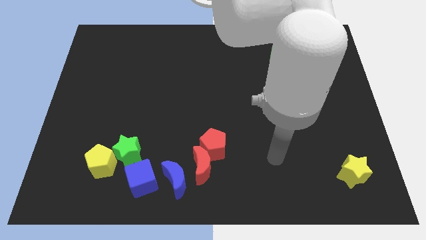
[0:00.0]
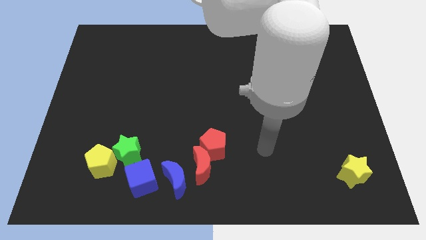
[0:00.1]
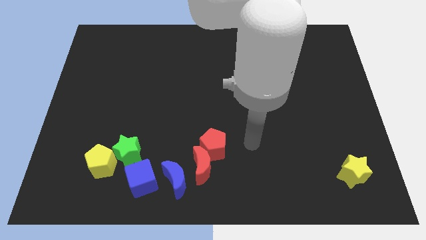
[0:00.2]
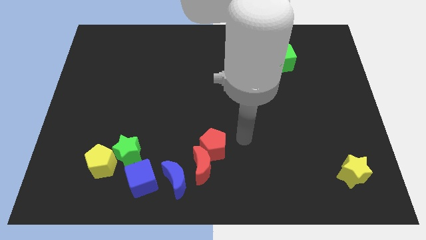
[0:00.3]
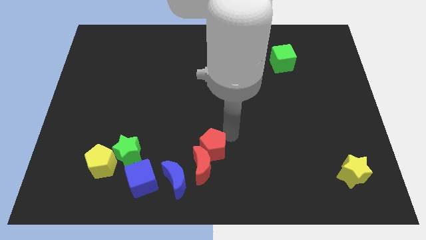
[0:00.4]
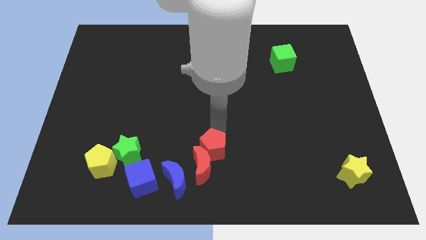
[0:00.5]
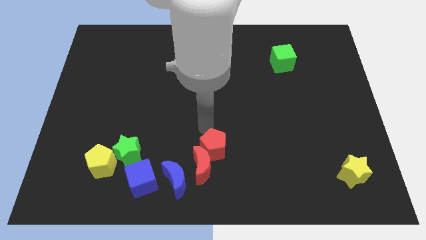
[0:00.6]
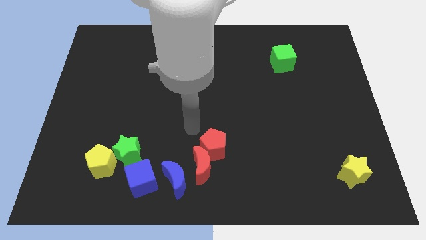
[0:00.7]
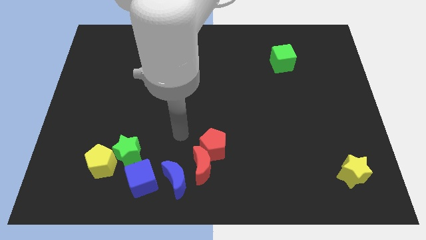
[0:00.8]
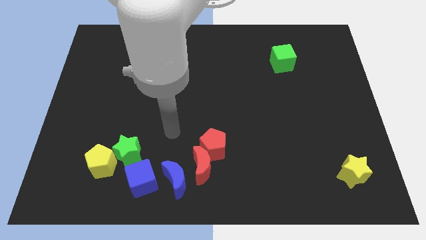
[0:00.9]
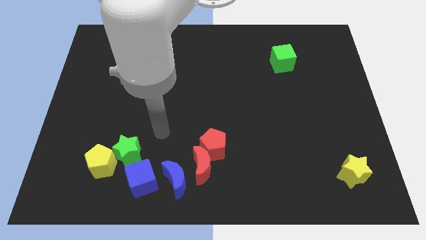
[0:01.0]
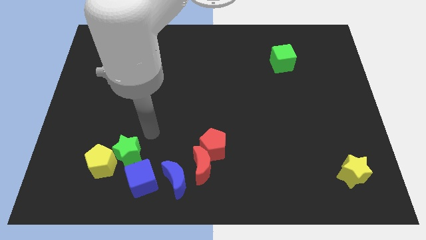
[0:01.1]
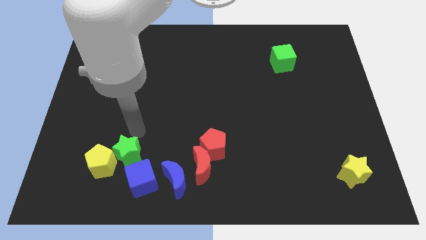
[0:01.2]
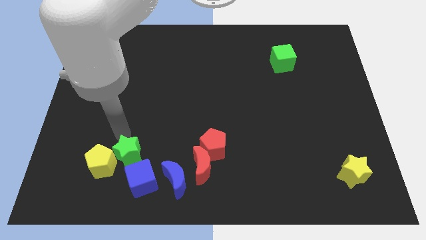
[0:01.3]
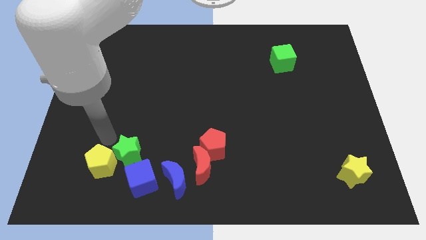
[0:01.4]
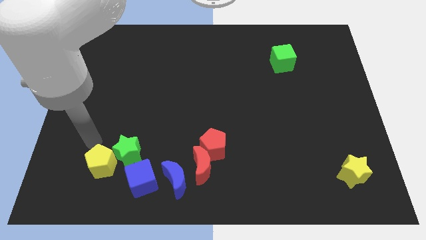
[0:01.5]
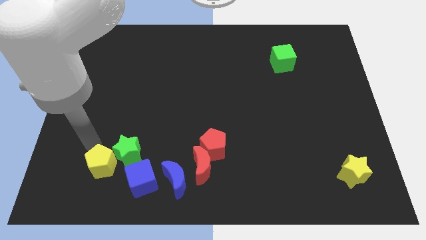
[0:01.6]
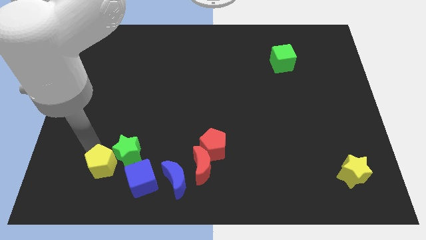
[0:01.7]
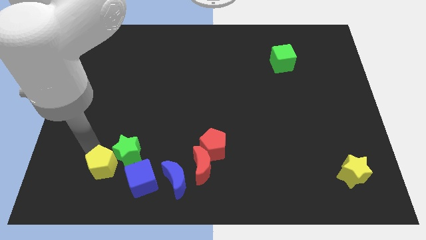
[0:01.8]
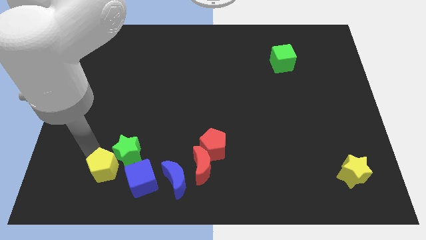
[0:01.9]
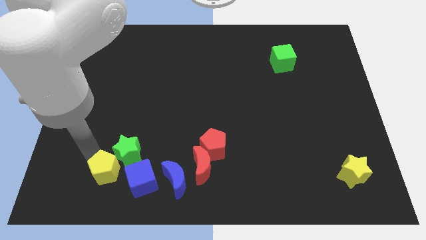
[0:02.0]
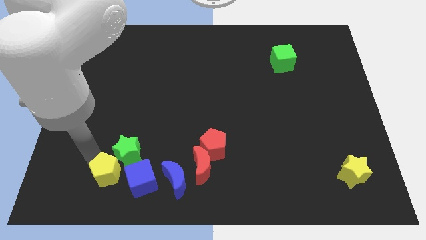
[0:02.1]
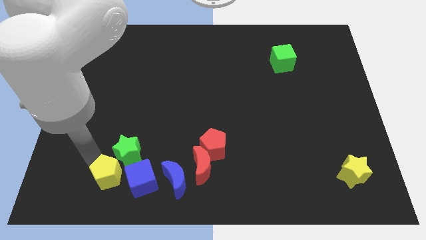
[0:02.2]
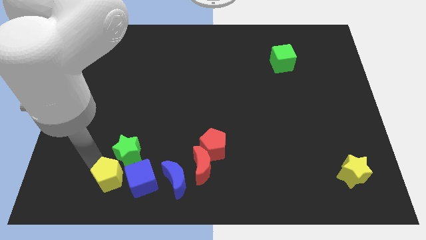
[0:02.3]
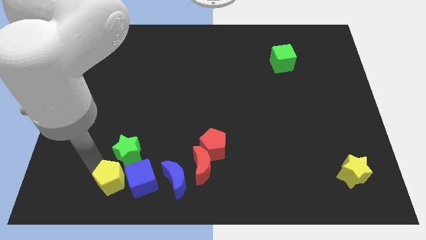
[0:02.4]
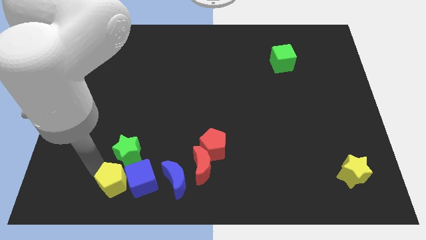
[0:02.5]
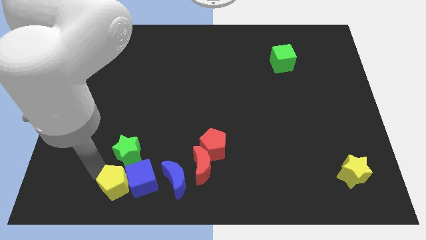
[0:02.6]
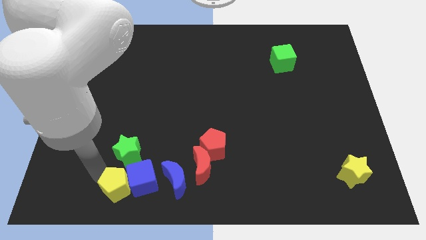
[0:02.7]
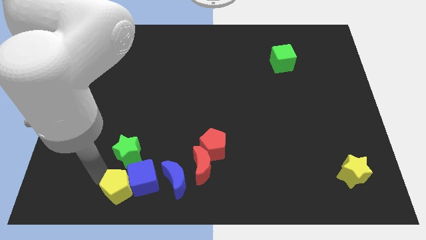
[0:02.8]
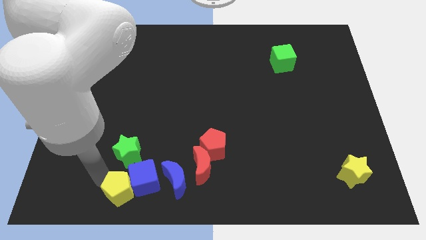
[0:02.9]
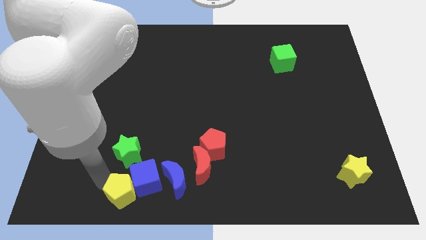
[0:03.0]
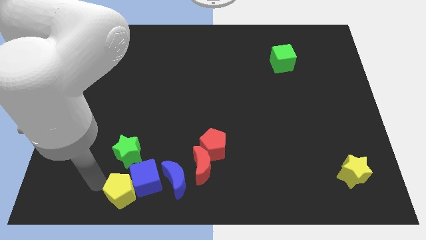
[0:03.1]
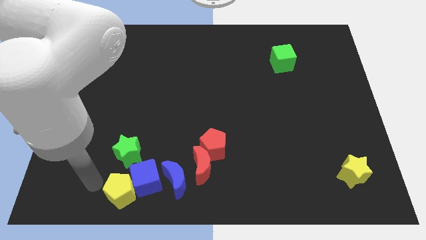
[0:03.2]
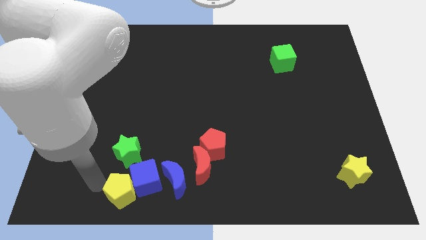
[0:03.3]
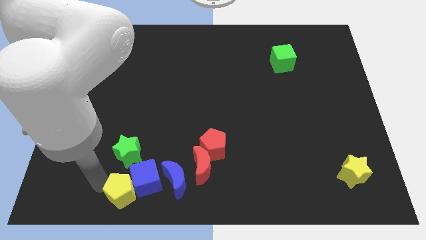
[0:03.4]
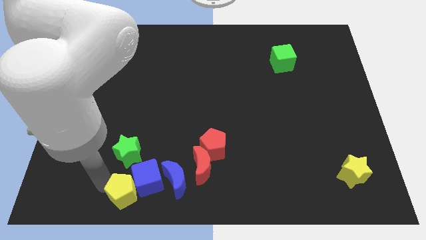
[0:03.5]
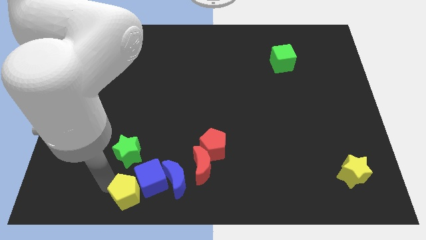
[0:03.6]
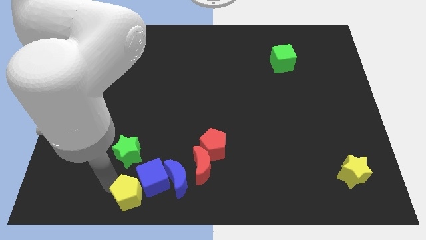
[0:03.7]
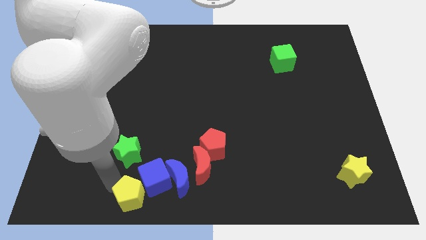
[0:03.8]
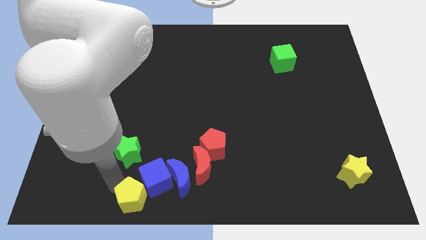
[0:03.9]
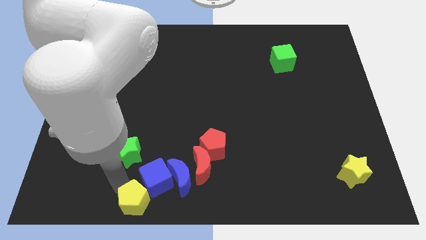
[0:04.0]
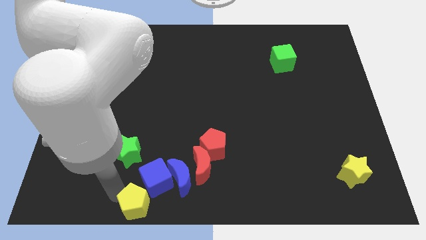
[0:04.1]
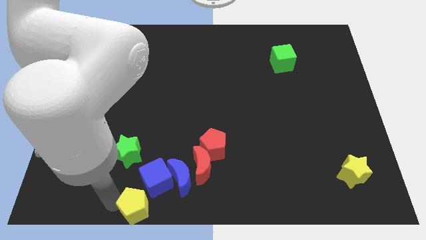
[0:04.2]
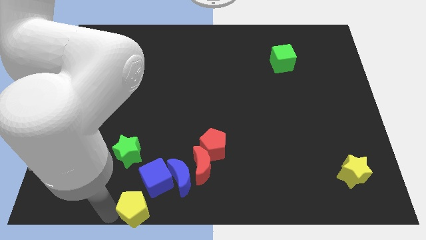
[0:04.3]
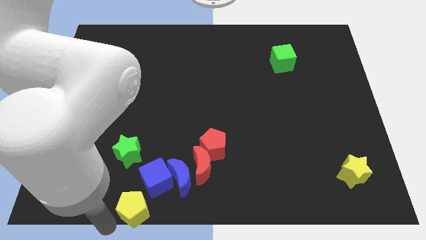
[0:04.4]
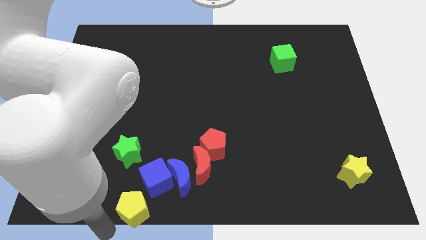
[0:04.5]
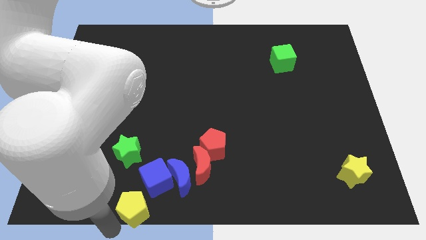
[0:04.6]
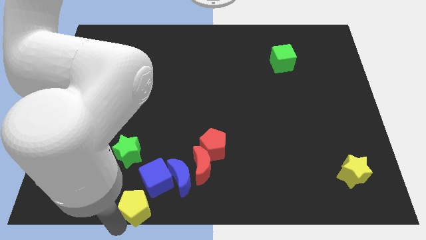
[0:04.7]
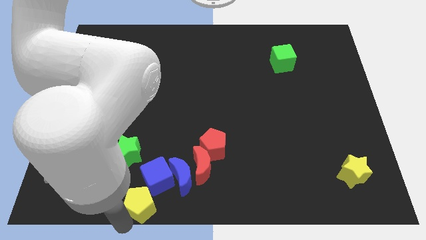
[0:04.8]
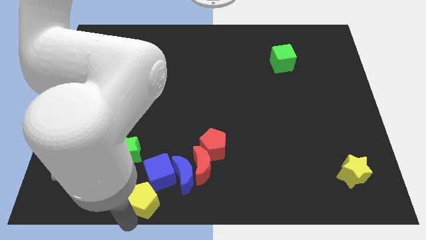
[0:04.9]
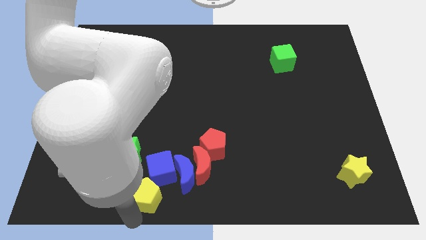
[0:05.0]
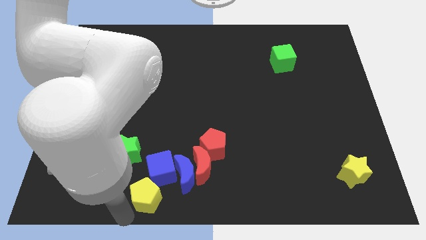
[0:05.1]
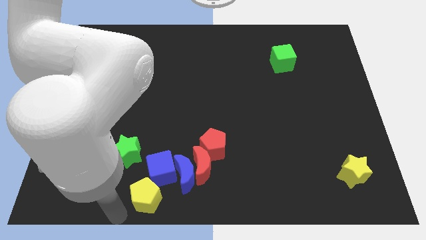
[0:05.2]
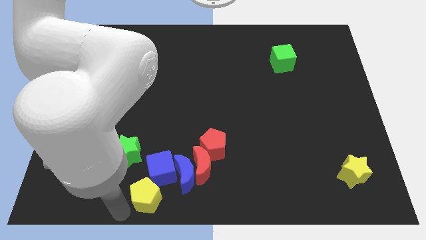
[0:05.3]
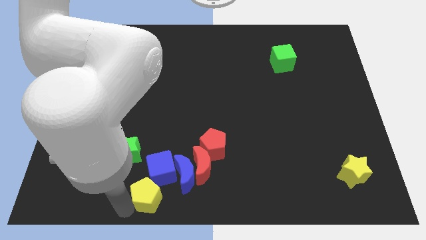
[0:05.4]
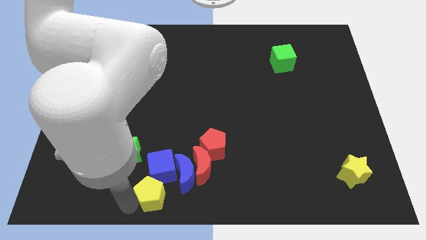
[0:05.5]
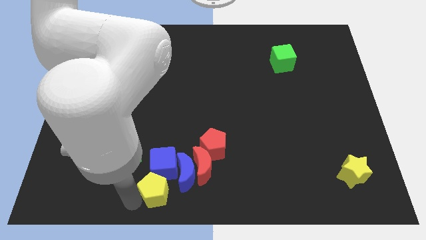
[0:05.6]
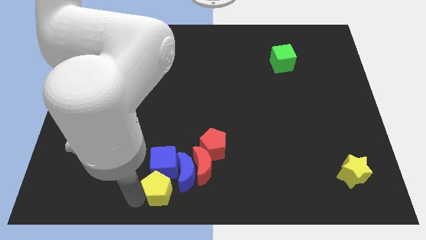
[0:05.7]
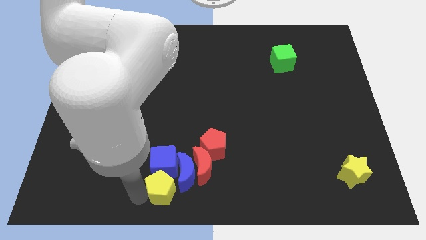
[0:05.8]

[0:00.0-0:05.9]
slide the yellow pentagon towards the blue moon

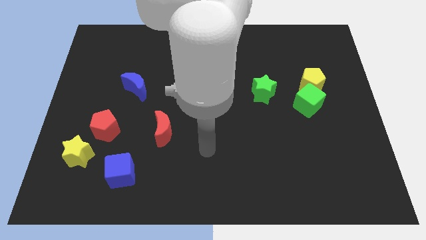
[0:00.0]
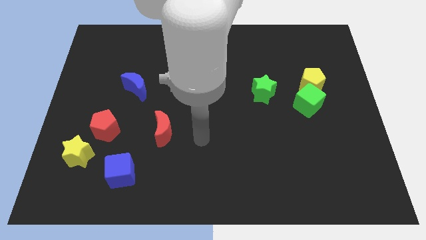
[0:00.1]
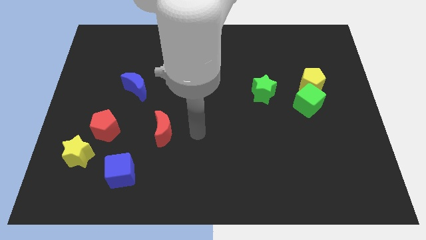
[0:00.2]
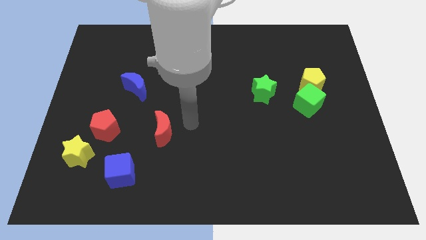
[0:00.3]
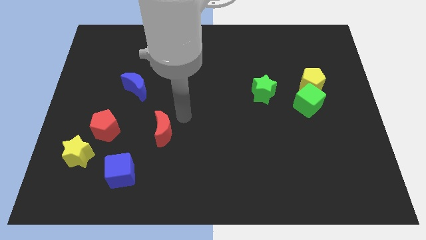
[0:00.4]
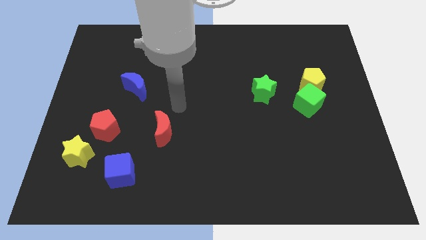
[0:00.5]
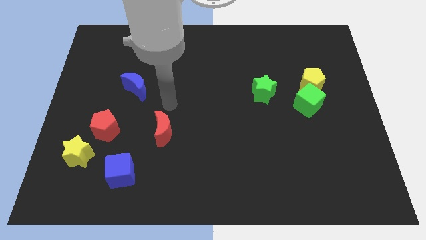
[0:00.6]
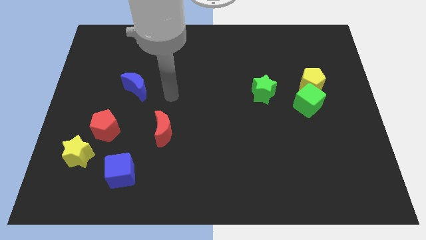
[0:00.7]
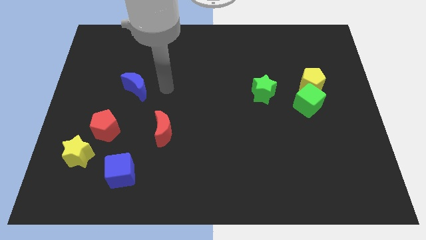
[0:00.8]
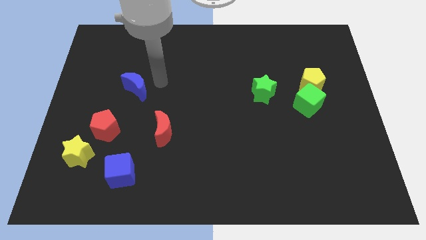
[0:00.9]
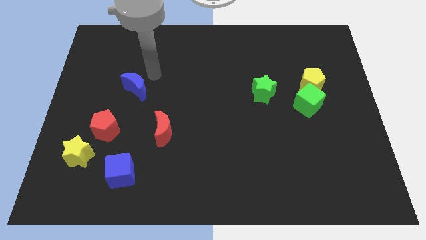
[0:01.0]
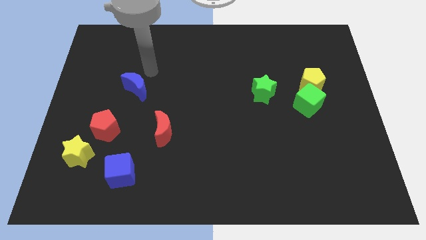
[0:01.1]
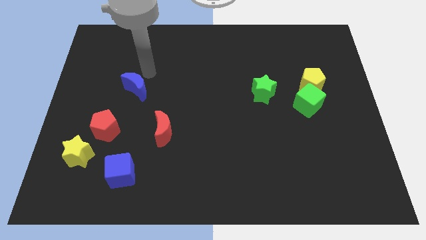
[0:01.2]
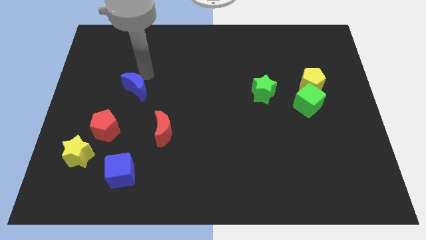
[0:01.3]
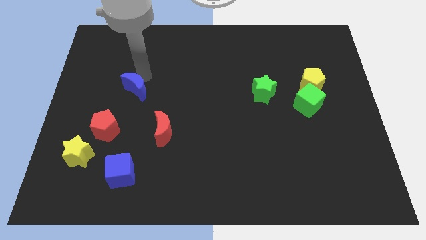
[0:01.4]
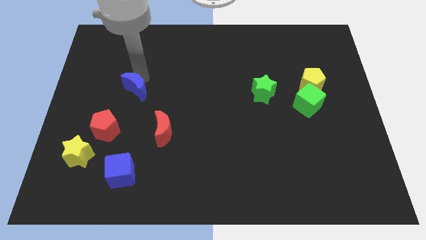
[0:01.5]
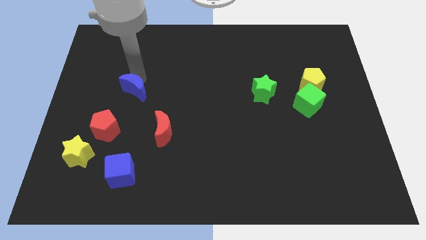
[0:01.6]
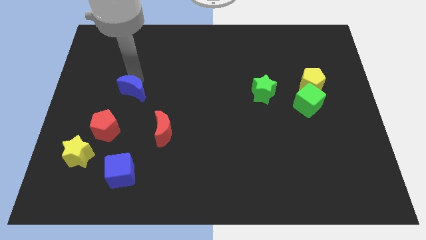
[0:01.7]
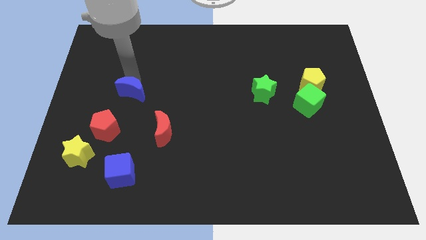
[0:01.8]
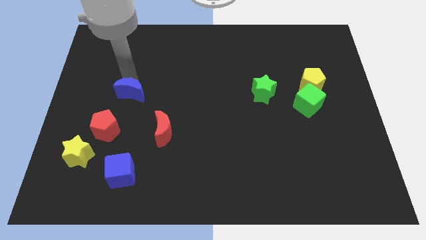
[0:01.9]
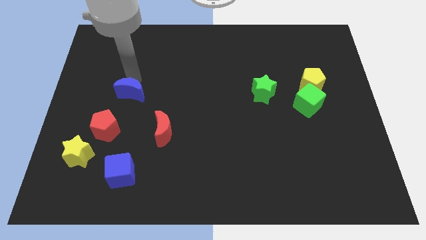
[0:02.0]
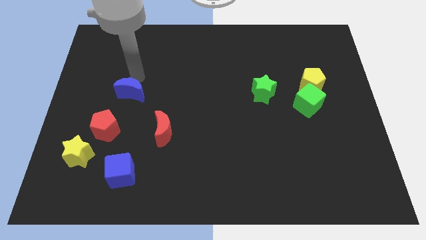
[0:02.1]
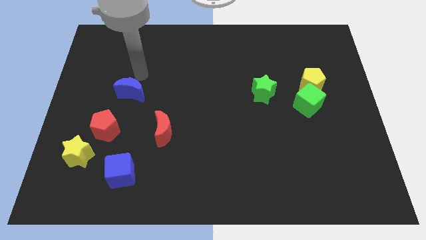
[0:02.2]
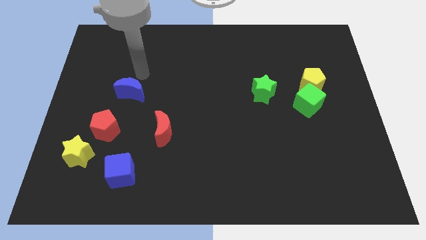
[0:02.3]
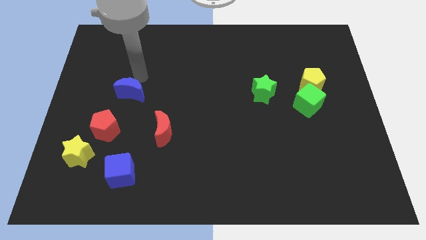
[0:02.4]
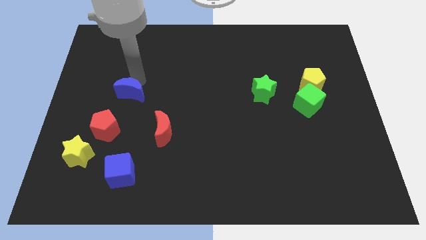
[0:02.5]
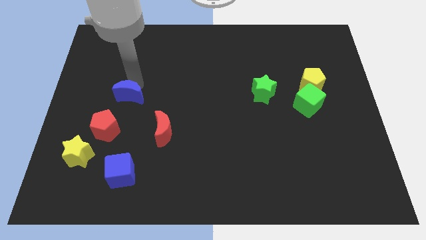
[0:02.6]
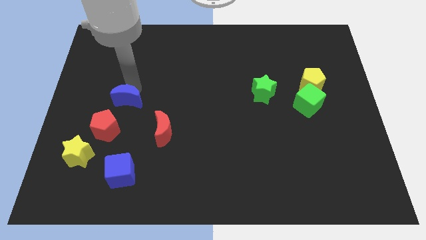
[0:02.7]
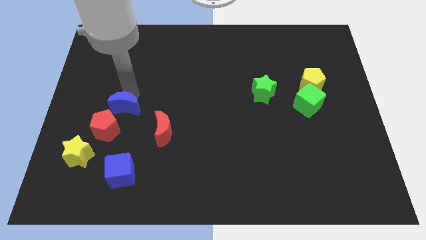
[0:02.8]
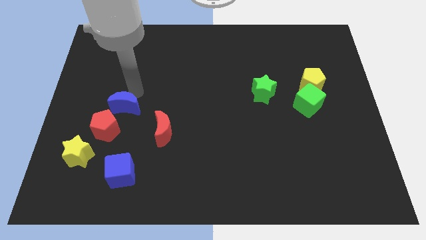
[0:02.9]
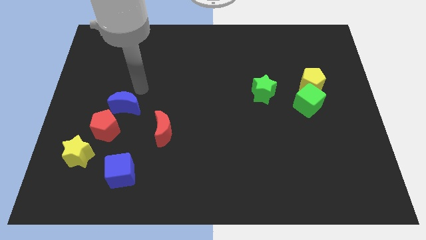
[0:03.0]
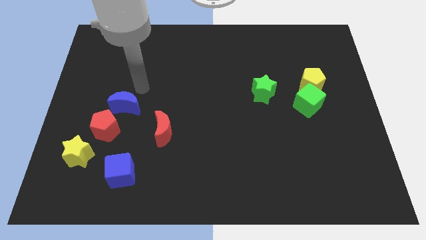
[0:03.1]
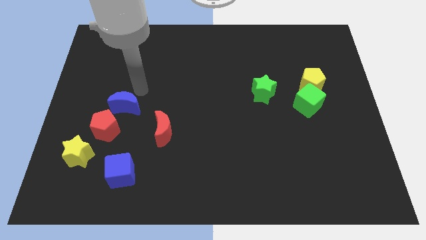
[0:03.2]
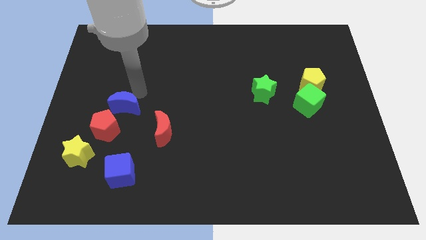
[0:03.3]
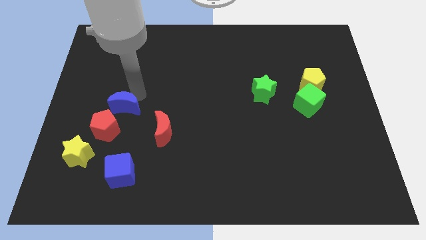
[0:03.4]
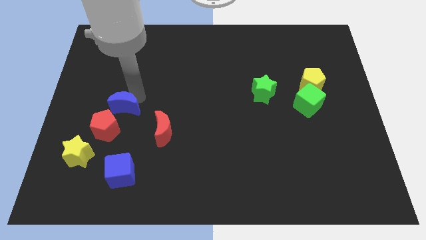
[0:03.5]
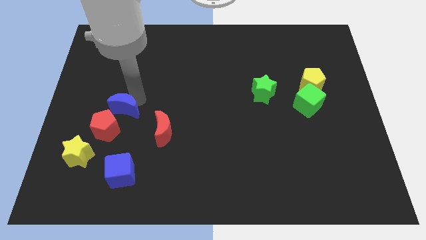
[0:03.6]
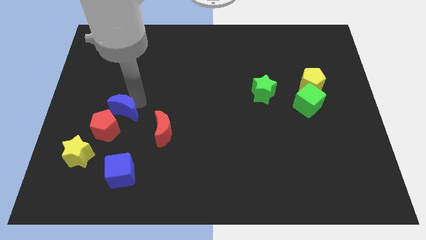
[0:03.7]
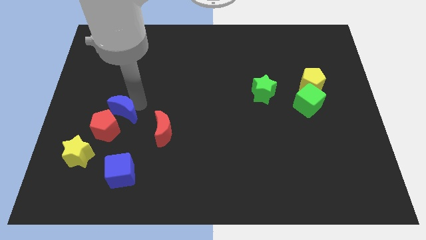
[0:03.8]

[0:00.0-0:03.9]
slide the blue moon towards the red pentagon
